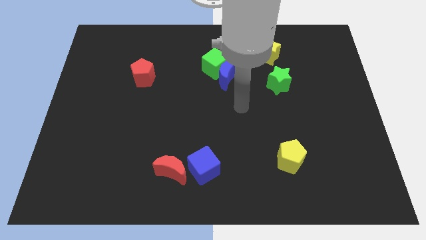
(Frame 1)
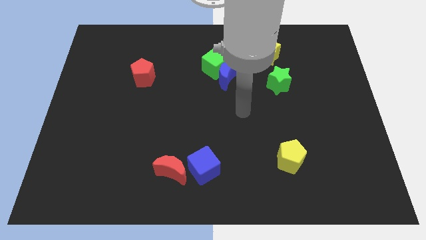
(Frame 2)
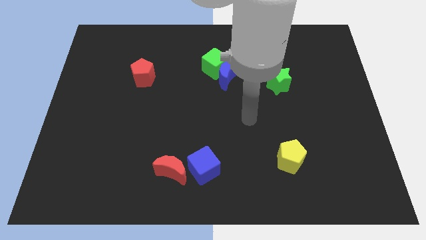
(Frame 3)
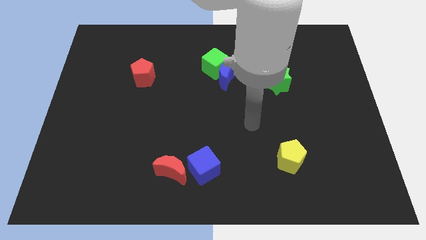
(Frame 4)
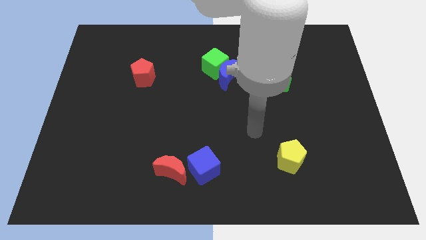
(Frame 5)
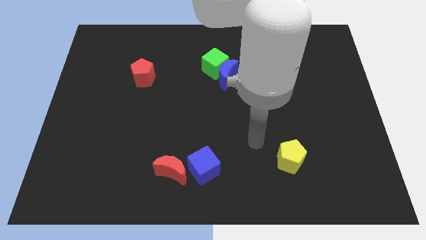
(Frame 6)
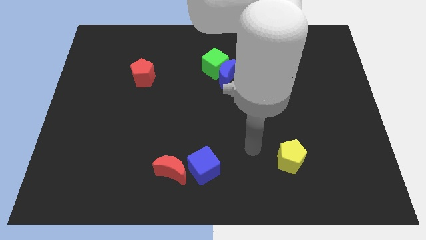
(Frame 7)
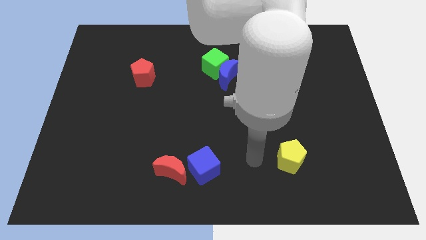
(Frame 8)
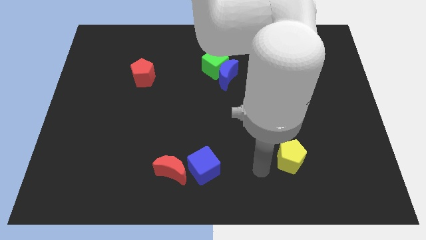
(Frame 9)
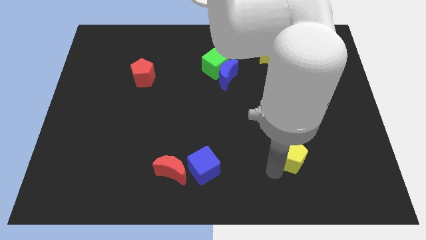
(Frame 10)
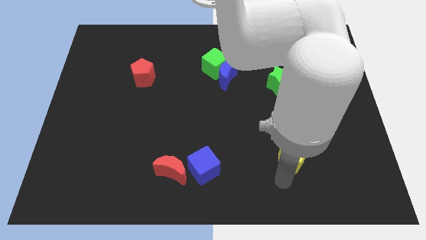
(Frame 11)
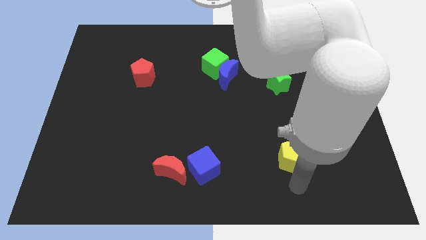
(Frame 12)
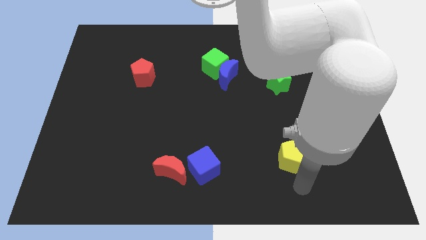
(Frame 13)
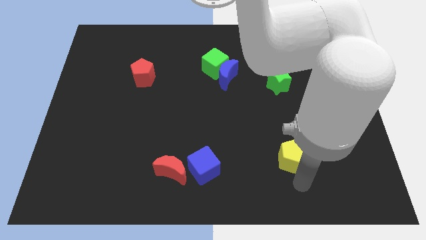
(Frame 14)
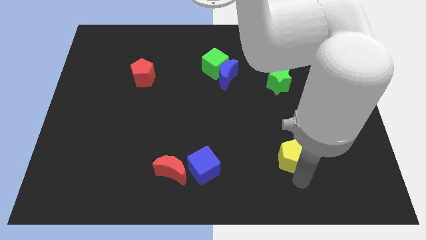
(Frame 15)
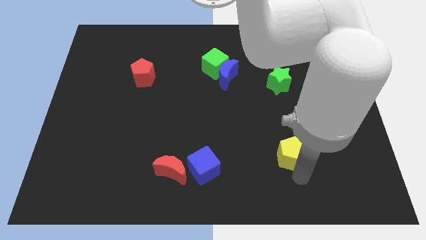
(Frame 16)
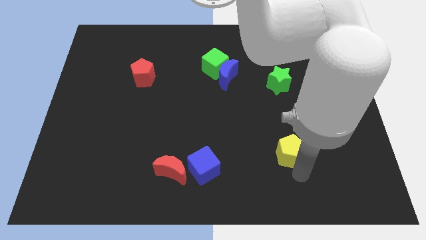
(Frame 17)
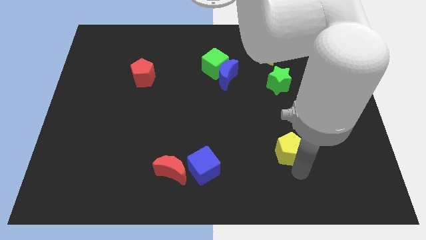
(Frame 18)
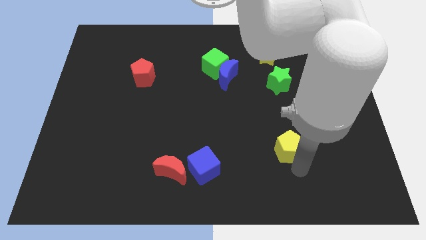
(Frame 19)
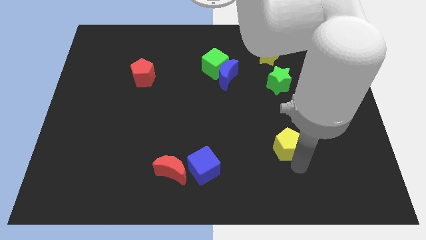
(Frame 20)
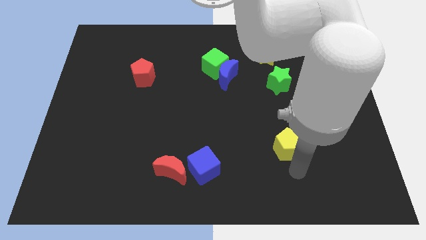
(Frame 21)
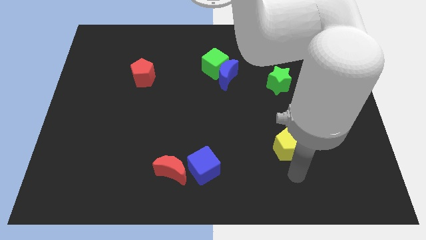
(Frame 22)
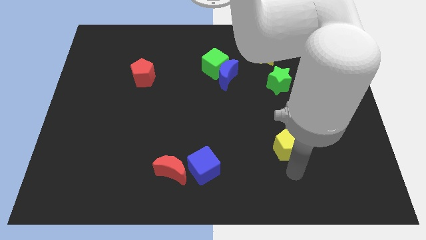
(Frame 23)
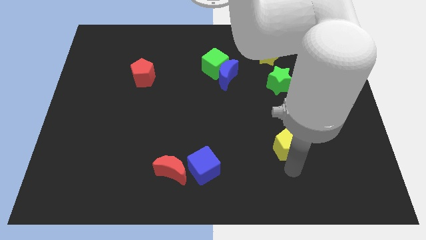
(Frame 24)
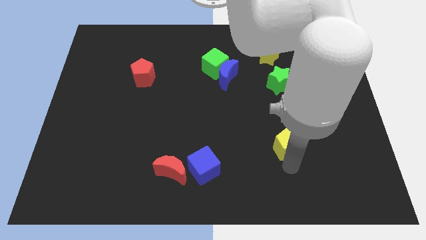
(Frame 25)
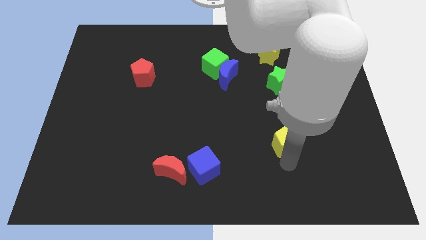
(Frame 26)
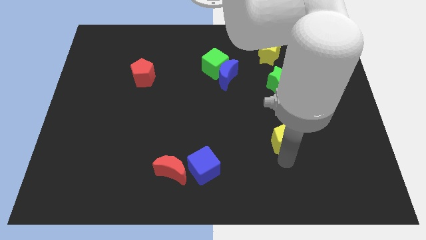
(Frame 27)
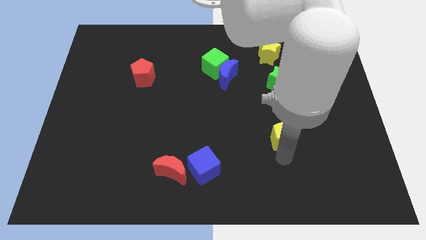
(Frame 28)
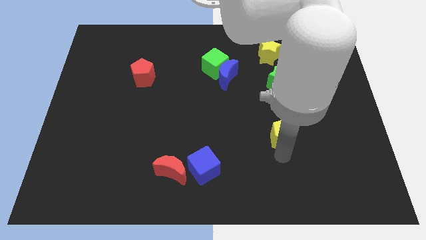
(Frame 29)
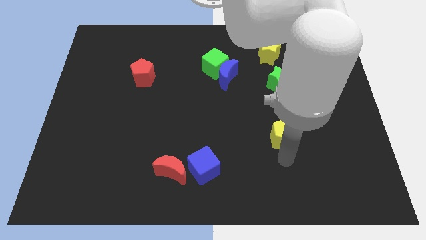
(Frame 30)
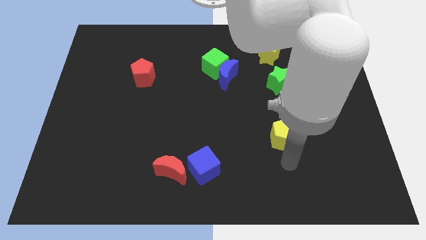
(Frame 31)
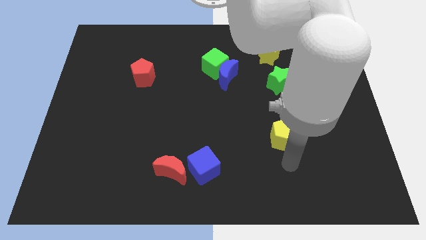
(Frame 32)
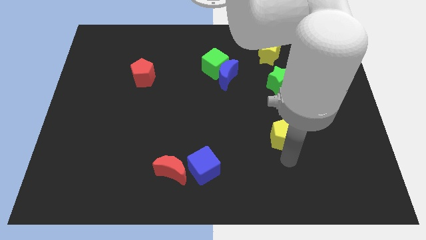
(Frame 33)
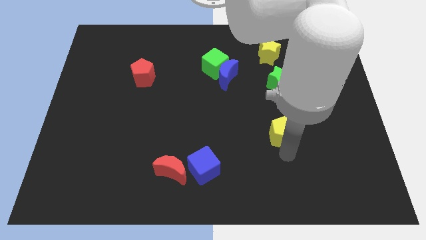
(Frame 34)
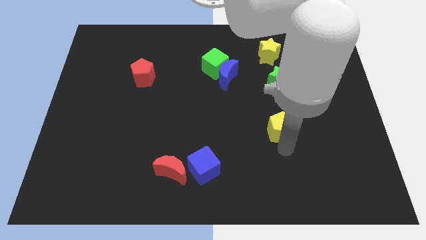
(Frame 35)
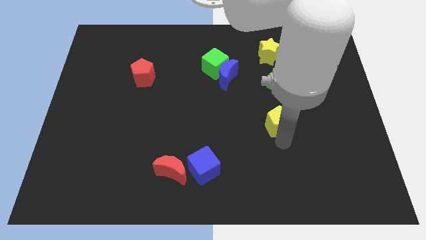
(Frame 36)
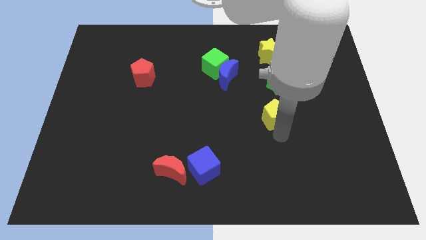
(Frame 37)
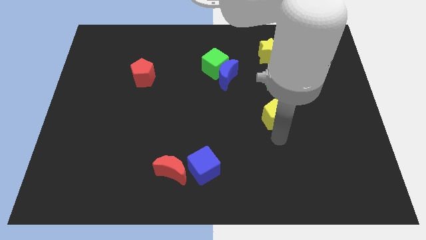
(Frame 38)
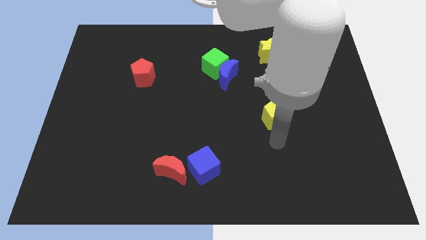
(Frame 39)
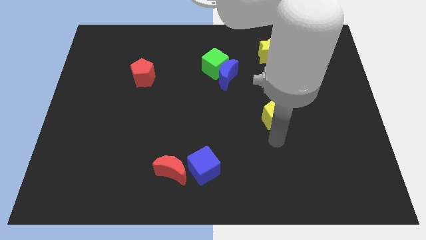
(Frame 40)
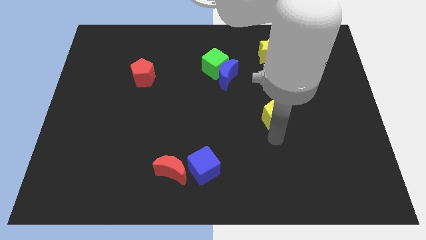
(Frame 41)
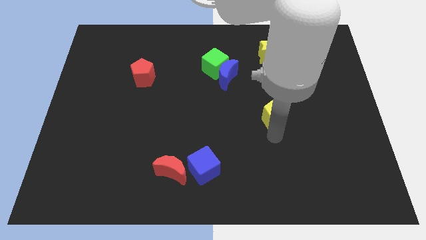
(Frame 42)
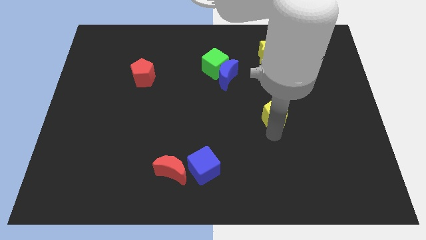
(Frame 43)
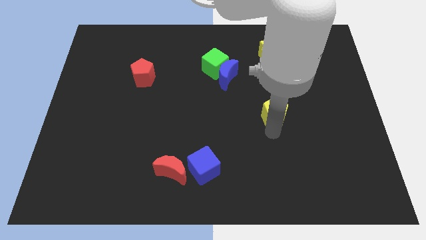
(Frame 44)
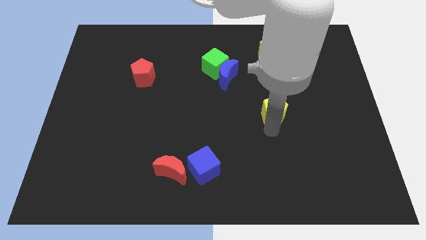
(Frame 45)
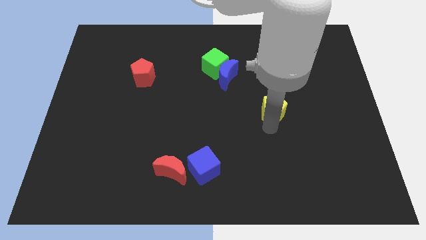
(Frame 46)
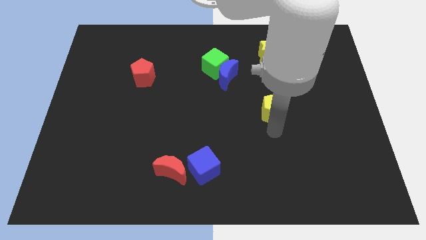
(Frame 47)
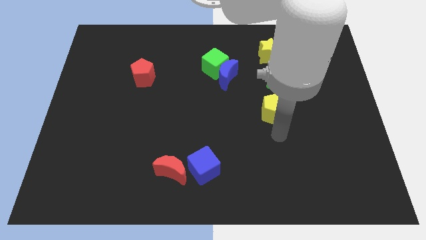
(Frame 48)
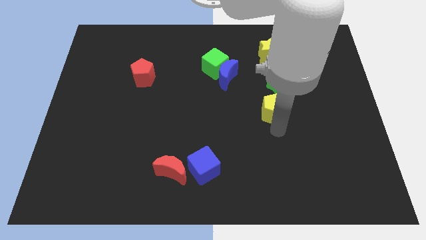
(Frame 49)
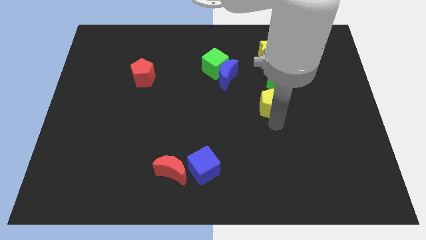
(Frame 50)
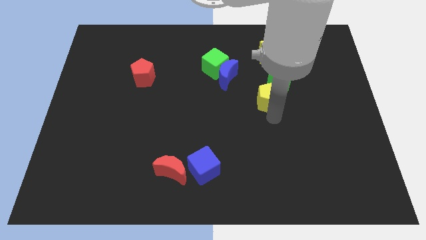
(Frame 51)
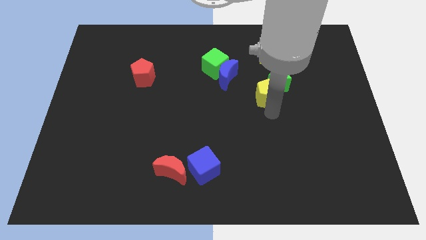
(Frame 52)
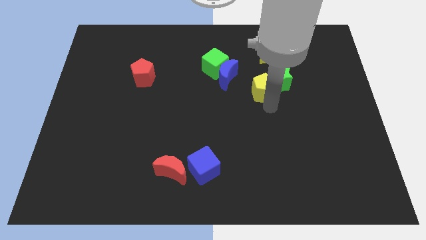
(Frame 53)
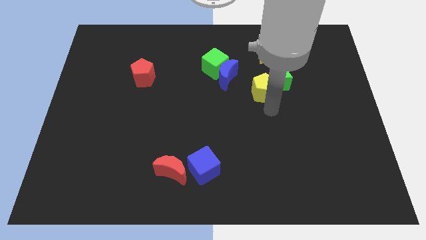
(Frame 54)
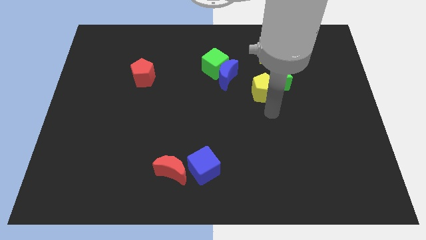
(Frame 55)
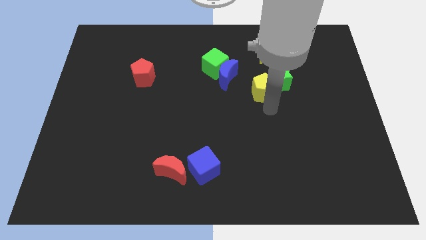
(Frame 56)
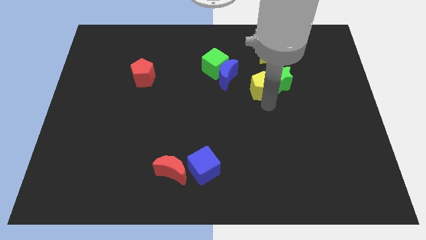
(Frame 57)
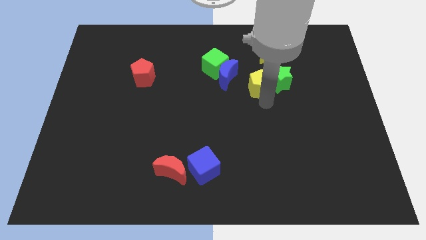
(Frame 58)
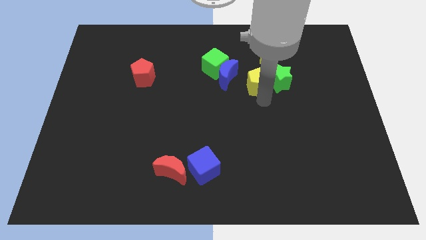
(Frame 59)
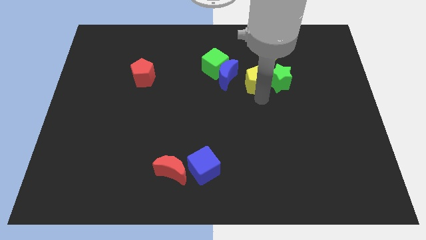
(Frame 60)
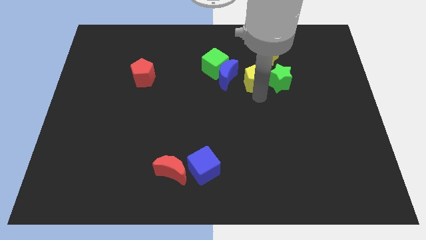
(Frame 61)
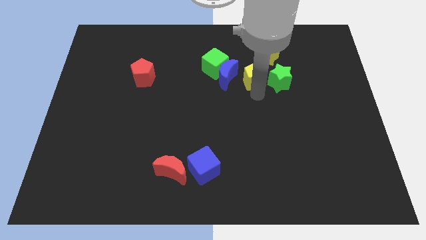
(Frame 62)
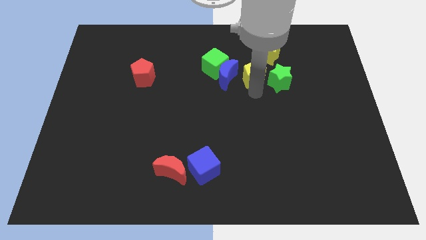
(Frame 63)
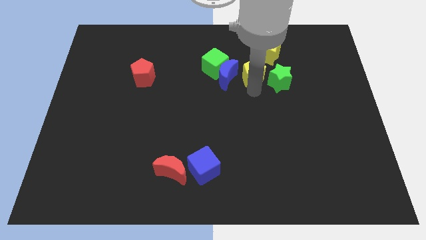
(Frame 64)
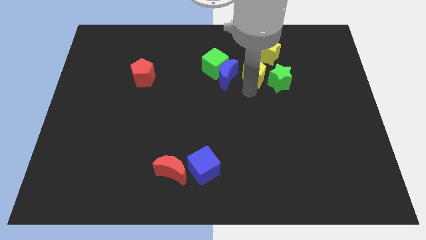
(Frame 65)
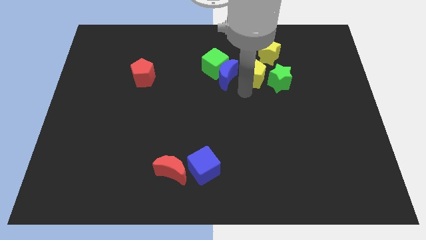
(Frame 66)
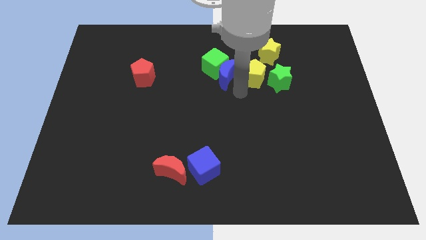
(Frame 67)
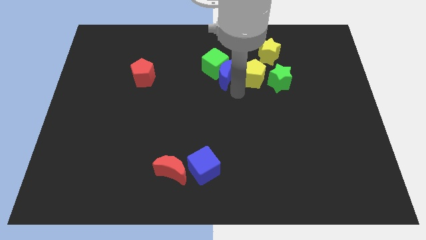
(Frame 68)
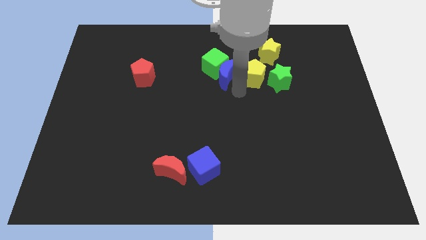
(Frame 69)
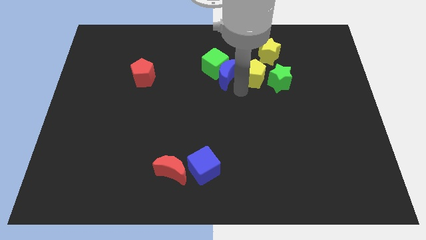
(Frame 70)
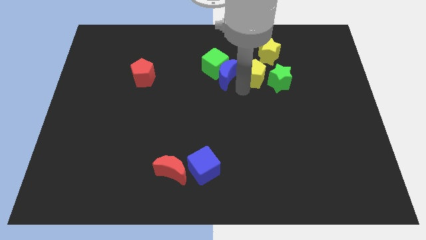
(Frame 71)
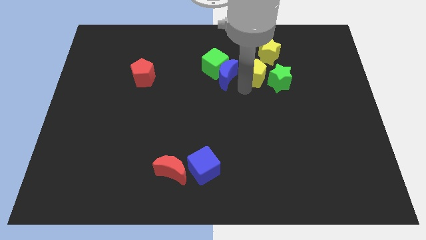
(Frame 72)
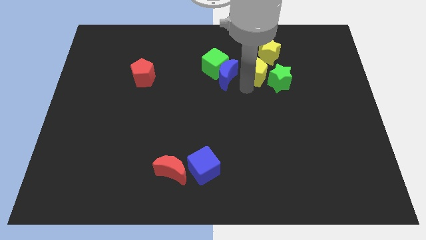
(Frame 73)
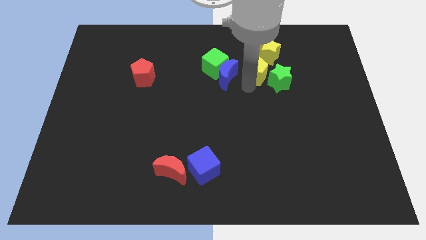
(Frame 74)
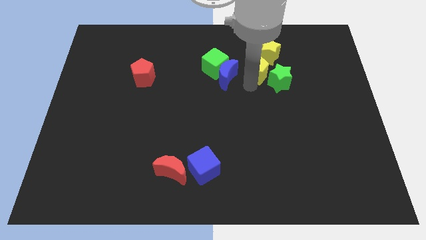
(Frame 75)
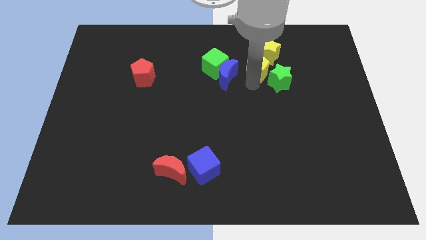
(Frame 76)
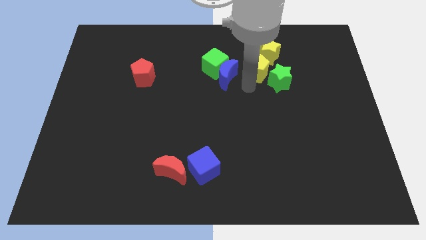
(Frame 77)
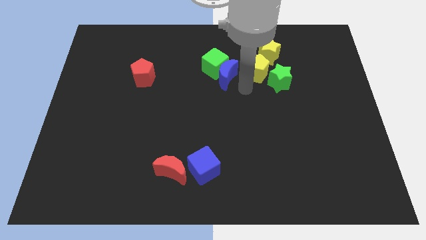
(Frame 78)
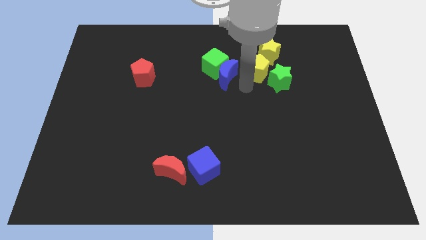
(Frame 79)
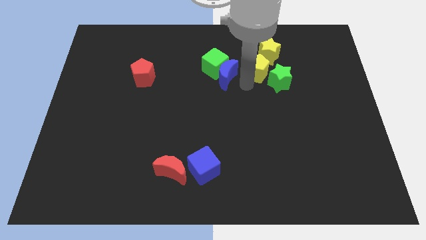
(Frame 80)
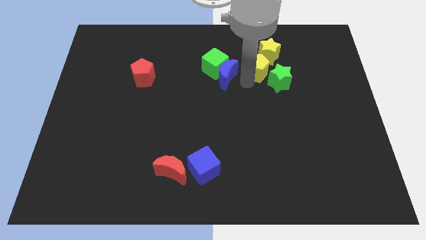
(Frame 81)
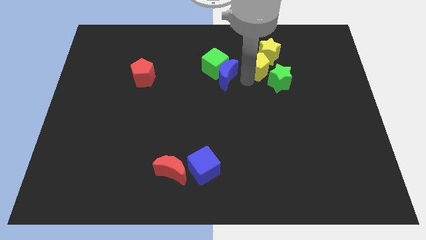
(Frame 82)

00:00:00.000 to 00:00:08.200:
push the yellow pentagon next to the yellow star
